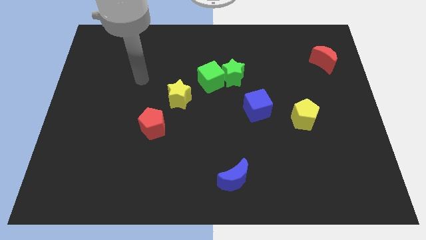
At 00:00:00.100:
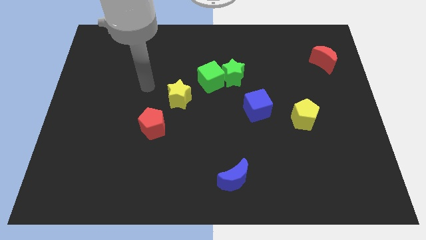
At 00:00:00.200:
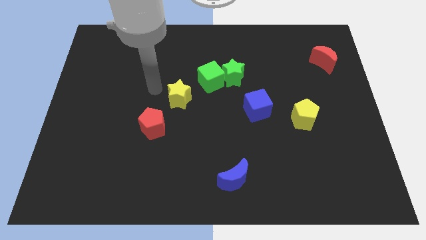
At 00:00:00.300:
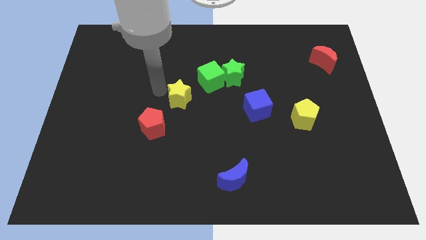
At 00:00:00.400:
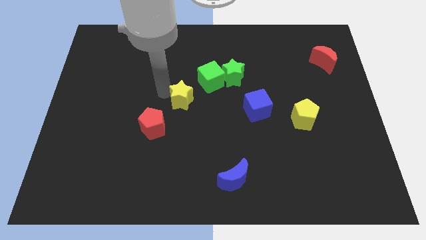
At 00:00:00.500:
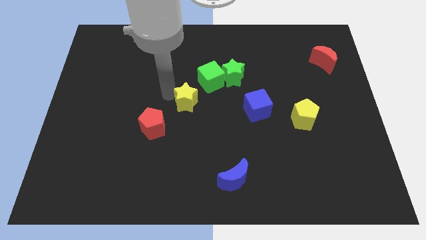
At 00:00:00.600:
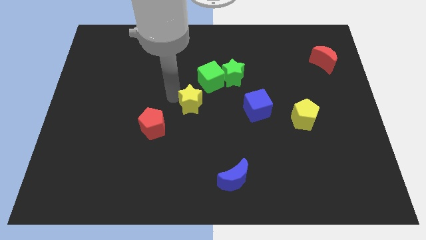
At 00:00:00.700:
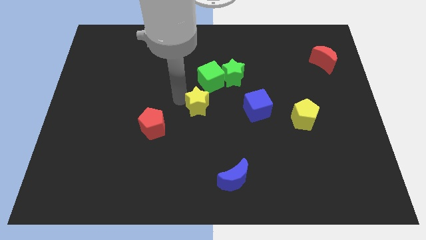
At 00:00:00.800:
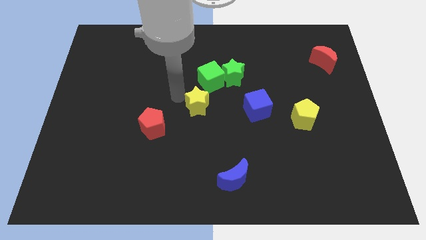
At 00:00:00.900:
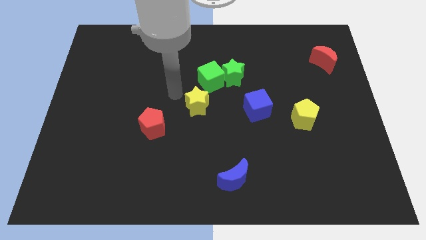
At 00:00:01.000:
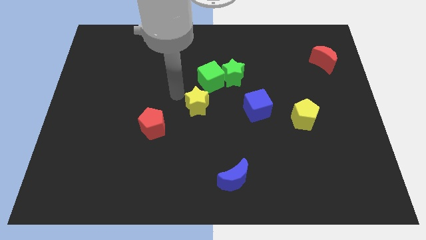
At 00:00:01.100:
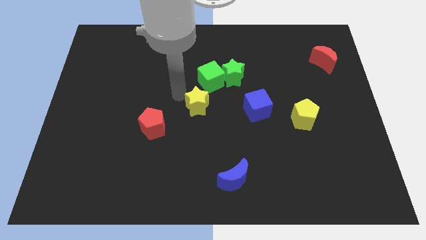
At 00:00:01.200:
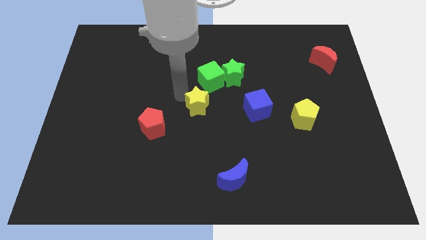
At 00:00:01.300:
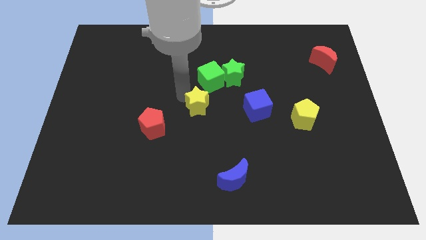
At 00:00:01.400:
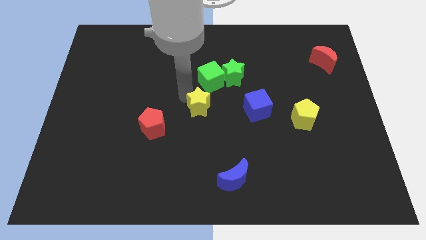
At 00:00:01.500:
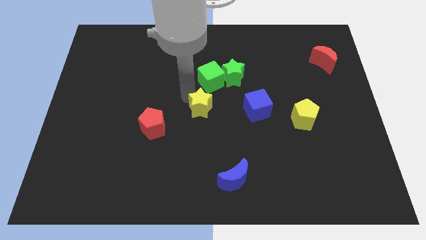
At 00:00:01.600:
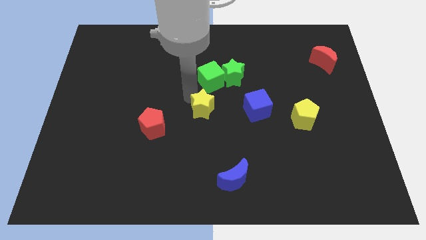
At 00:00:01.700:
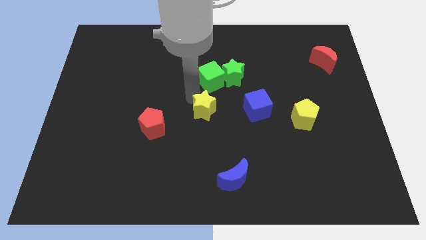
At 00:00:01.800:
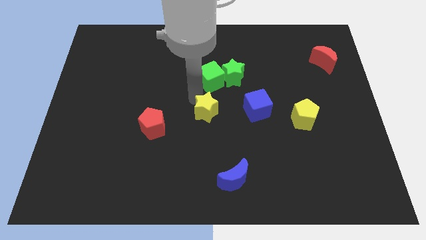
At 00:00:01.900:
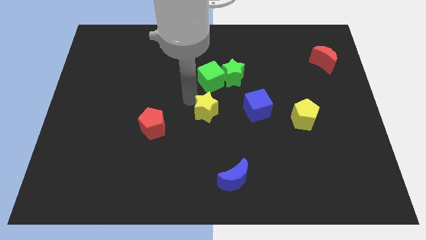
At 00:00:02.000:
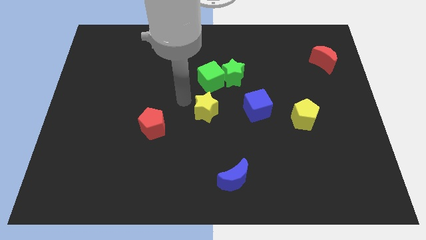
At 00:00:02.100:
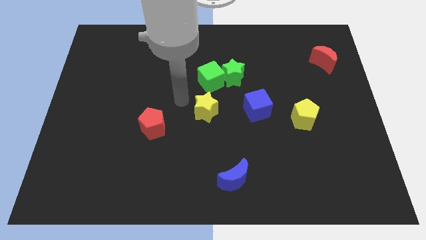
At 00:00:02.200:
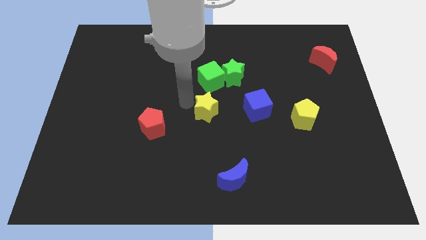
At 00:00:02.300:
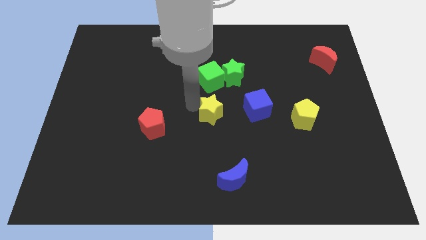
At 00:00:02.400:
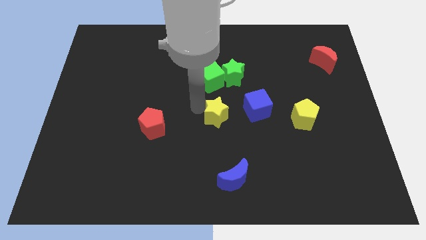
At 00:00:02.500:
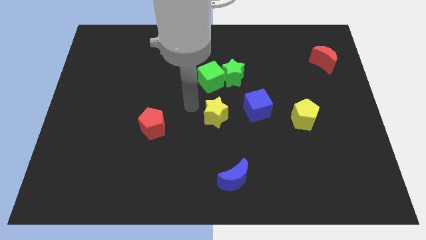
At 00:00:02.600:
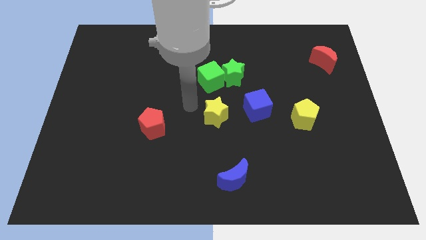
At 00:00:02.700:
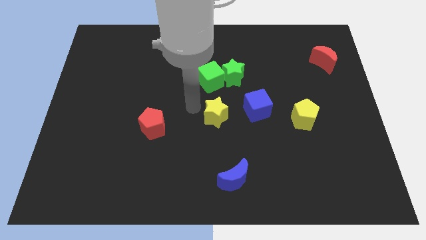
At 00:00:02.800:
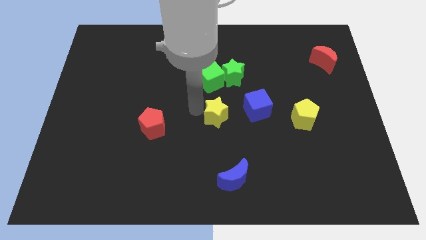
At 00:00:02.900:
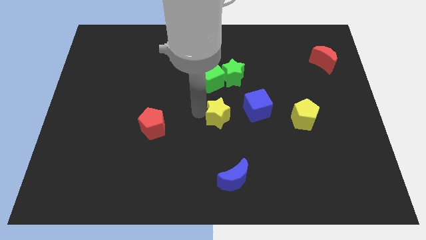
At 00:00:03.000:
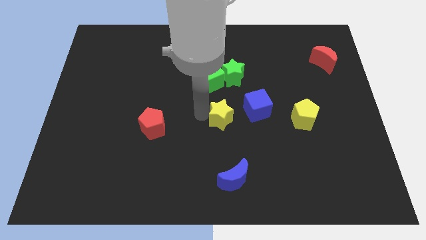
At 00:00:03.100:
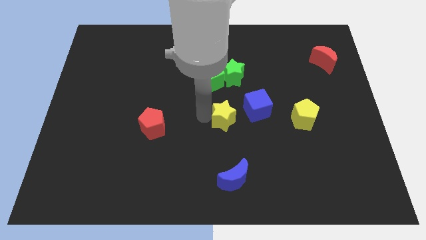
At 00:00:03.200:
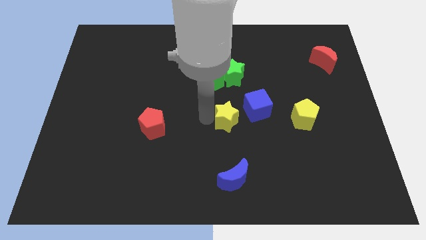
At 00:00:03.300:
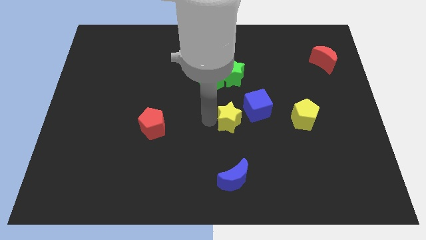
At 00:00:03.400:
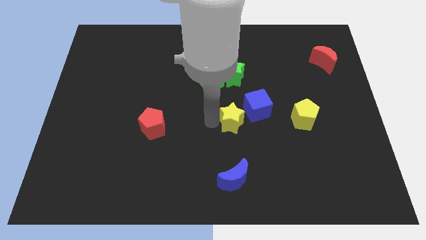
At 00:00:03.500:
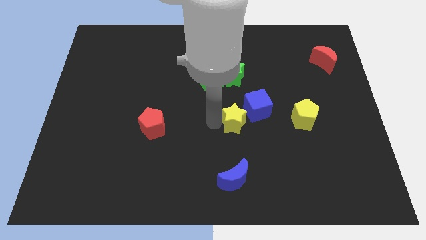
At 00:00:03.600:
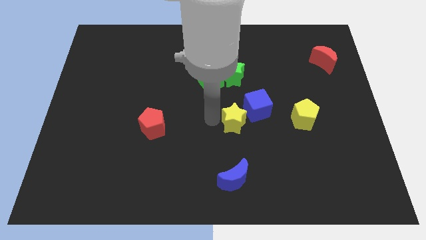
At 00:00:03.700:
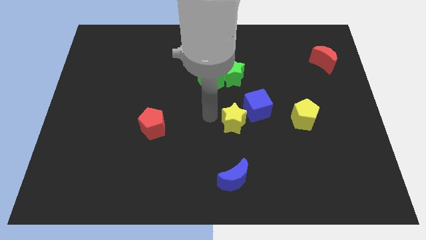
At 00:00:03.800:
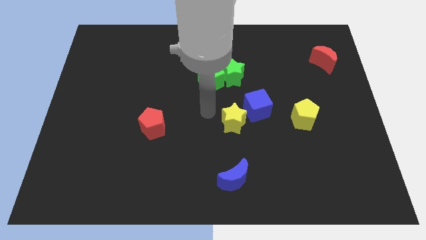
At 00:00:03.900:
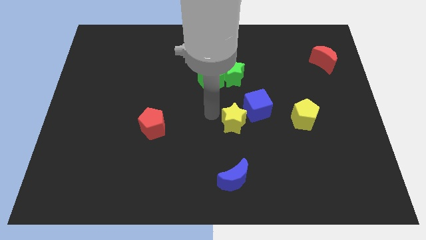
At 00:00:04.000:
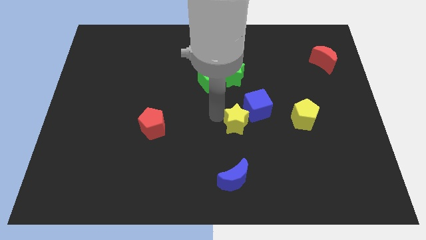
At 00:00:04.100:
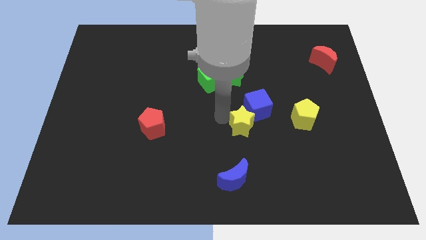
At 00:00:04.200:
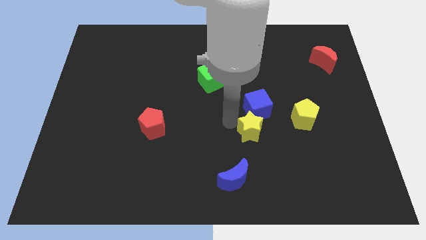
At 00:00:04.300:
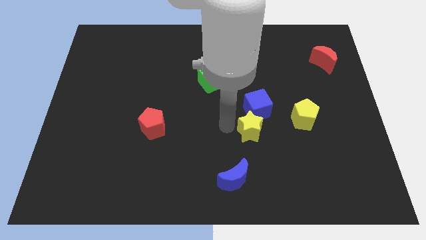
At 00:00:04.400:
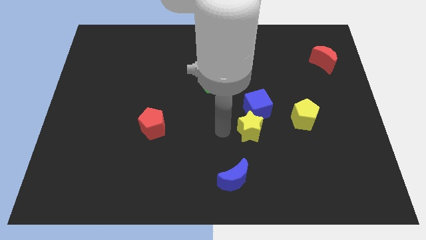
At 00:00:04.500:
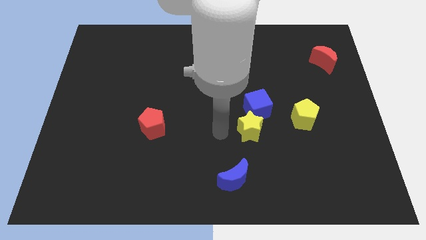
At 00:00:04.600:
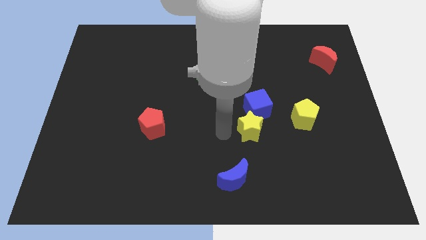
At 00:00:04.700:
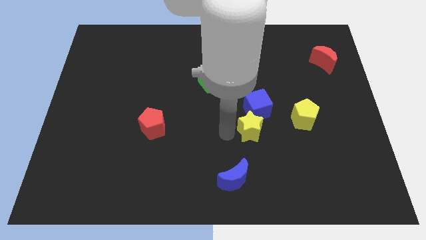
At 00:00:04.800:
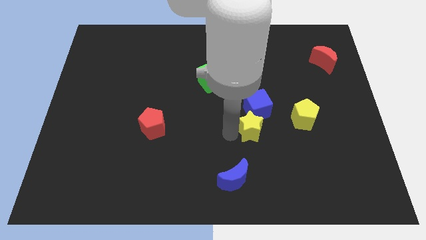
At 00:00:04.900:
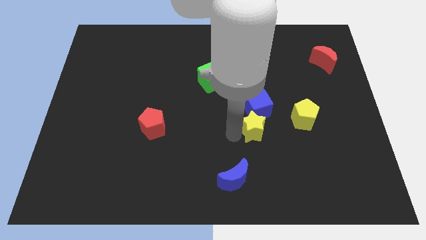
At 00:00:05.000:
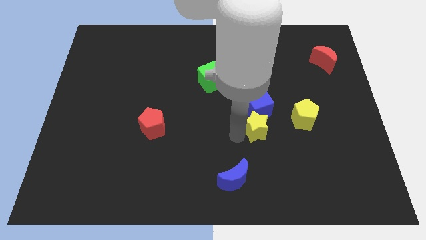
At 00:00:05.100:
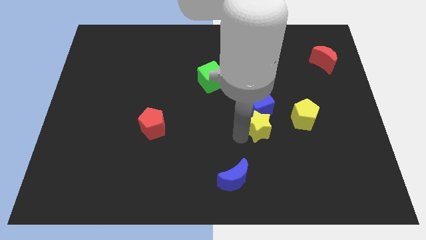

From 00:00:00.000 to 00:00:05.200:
move the yellow star to the bottom right of the blue cube

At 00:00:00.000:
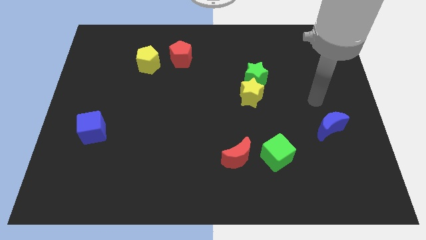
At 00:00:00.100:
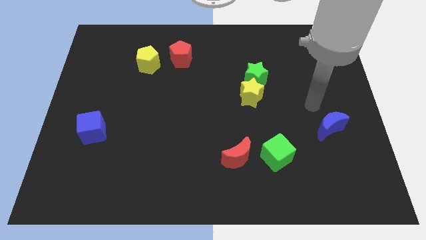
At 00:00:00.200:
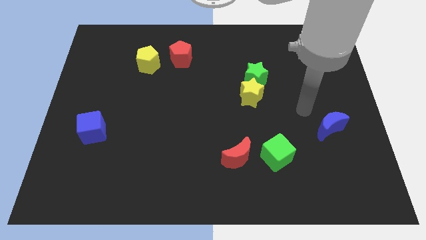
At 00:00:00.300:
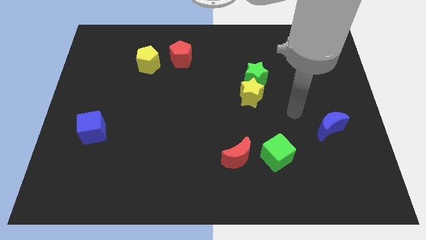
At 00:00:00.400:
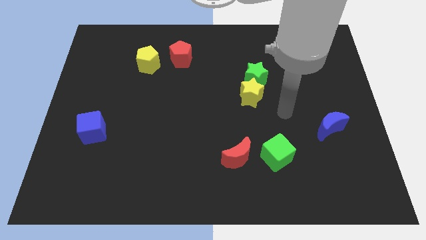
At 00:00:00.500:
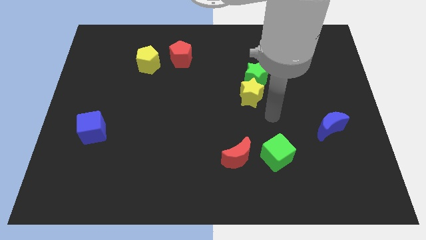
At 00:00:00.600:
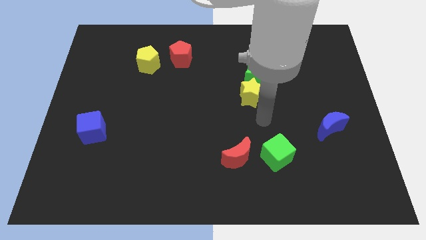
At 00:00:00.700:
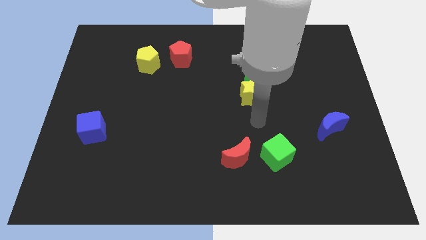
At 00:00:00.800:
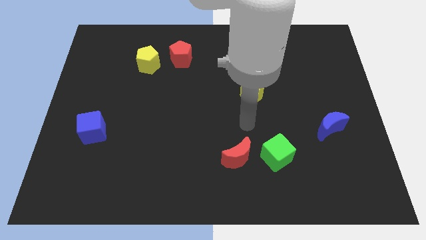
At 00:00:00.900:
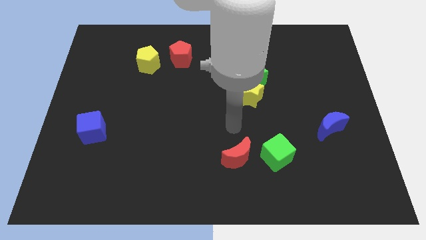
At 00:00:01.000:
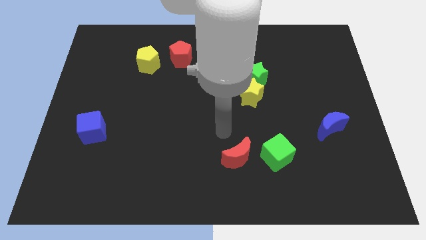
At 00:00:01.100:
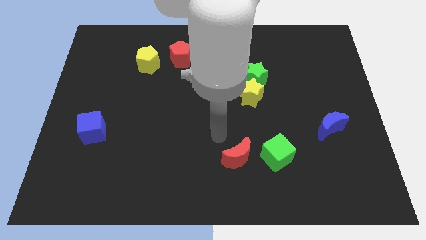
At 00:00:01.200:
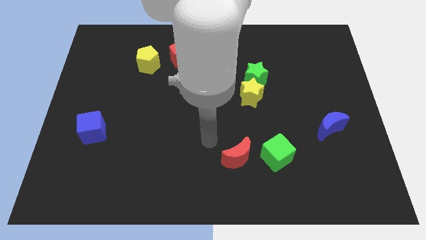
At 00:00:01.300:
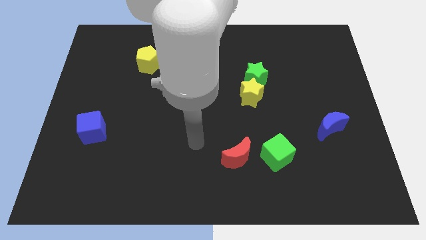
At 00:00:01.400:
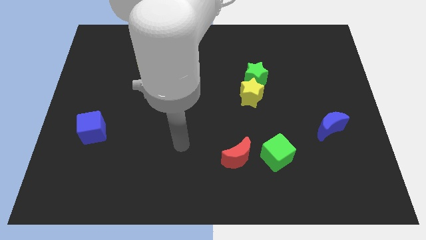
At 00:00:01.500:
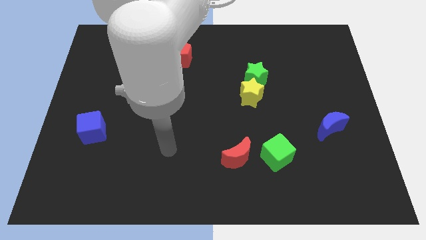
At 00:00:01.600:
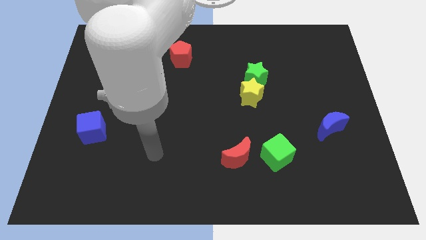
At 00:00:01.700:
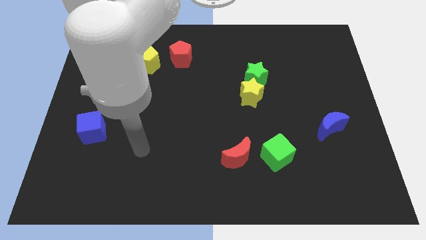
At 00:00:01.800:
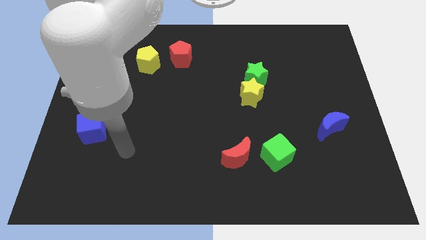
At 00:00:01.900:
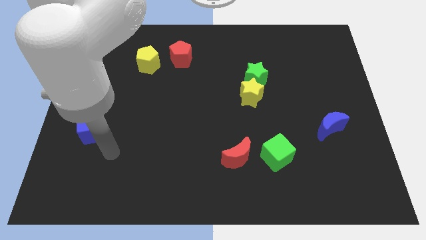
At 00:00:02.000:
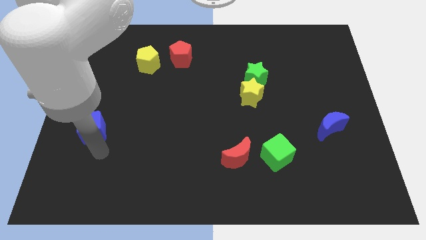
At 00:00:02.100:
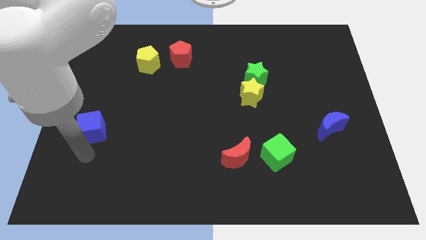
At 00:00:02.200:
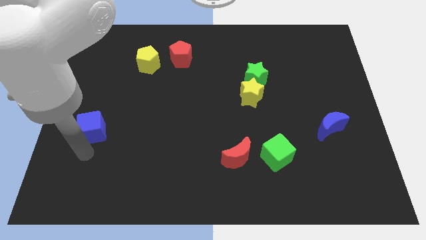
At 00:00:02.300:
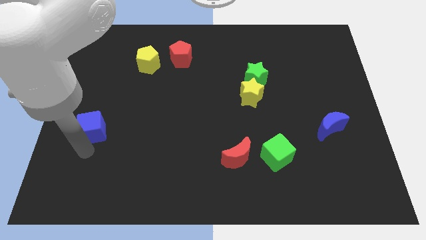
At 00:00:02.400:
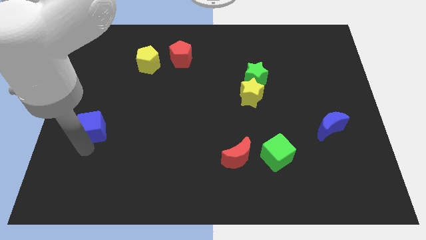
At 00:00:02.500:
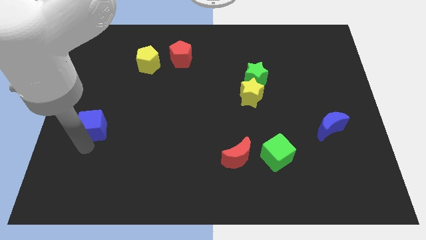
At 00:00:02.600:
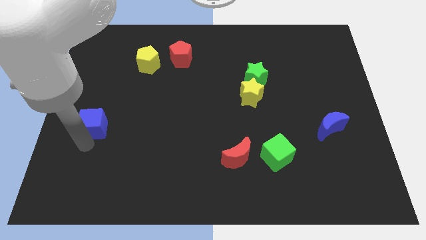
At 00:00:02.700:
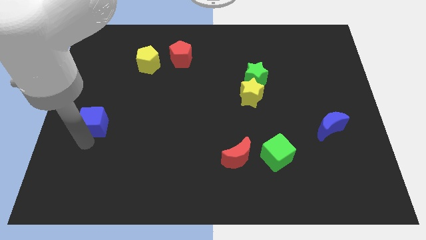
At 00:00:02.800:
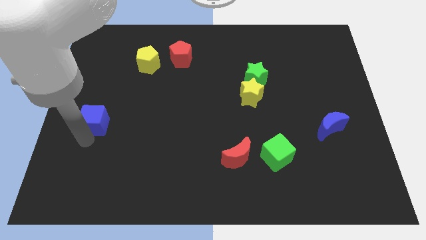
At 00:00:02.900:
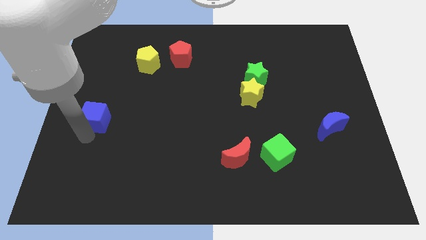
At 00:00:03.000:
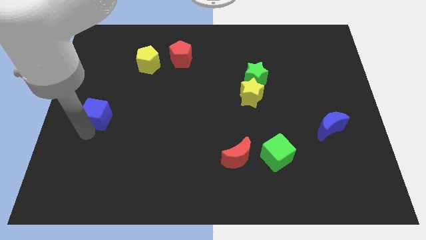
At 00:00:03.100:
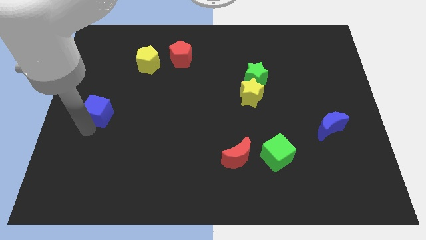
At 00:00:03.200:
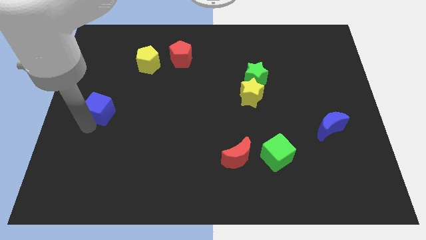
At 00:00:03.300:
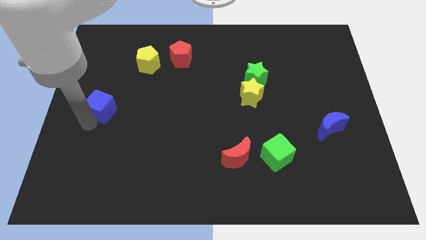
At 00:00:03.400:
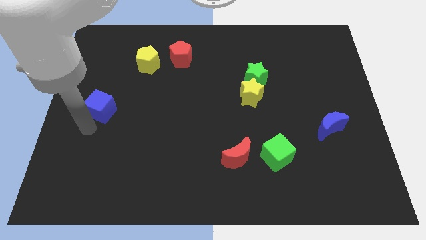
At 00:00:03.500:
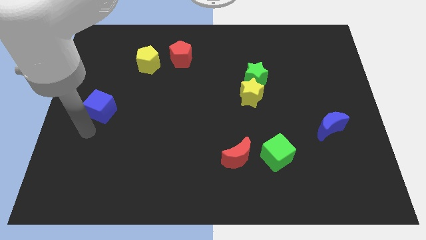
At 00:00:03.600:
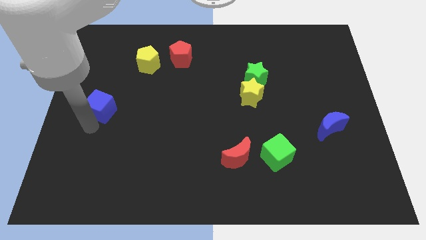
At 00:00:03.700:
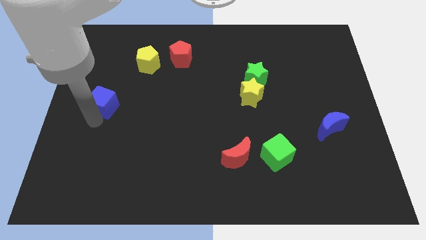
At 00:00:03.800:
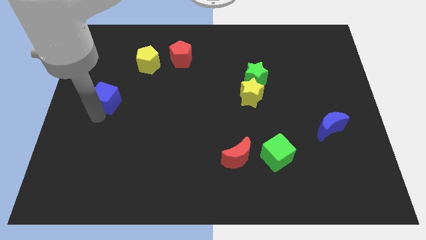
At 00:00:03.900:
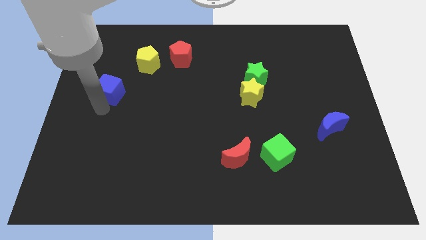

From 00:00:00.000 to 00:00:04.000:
push the blue cube to the bottom left of the yellow pentagon
